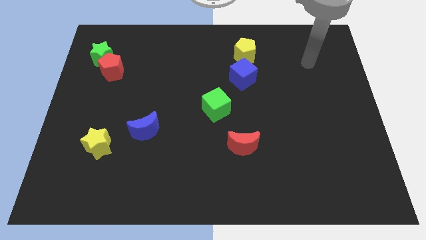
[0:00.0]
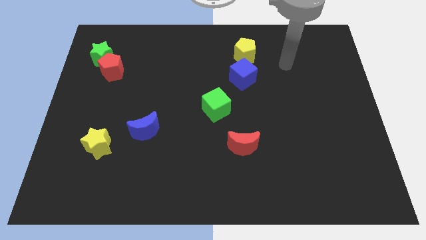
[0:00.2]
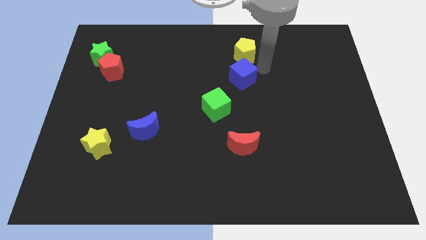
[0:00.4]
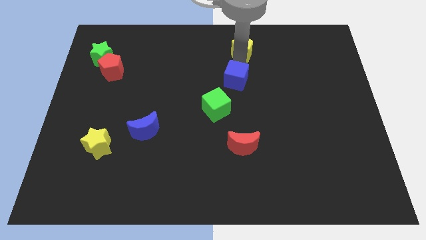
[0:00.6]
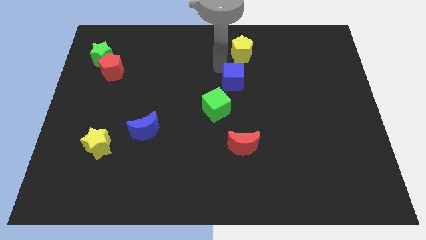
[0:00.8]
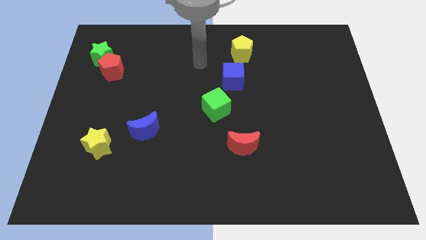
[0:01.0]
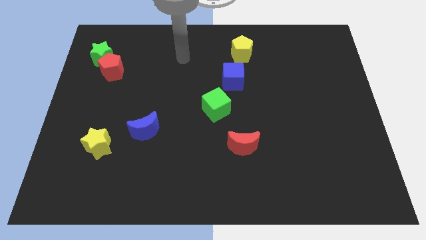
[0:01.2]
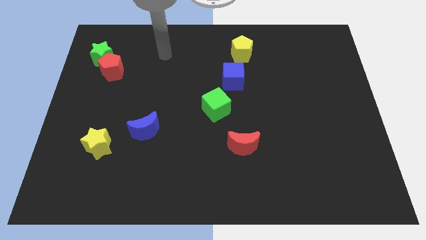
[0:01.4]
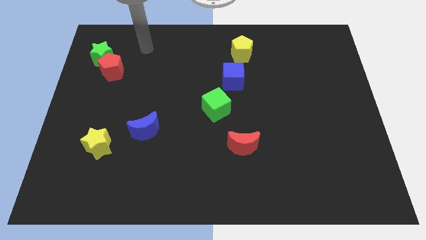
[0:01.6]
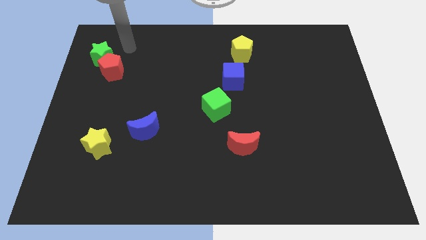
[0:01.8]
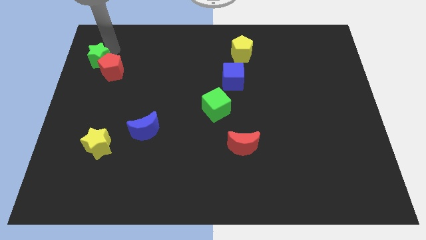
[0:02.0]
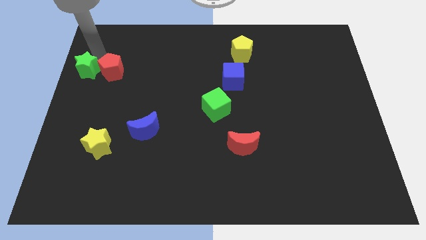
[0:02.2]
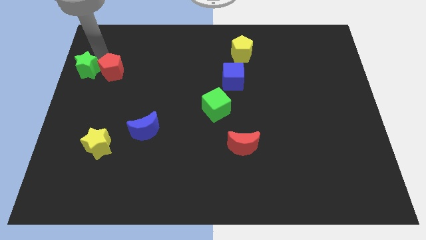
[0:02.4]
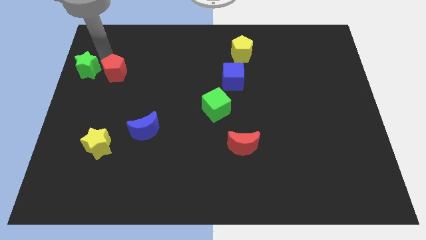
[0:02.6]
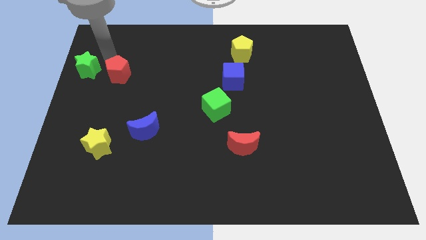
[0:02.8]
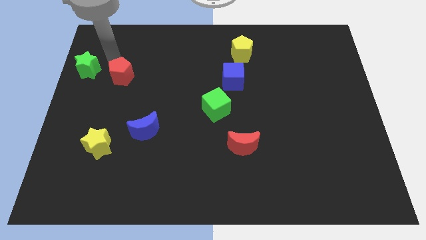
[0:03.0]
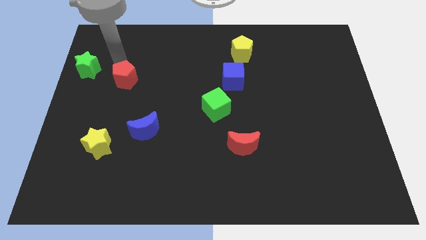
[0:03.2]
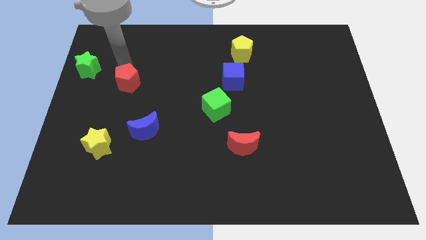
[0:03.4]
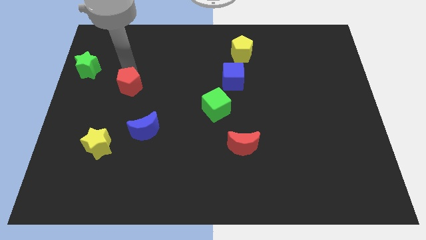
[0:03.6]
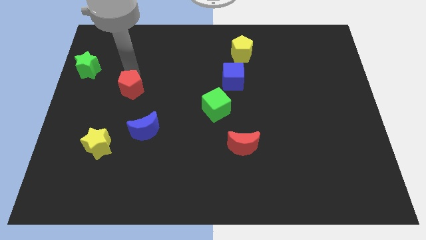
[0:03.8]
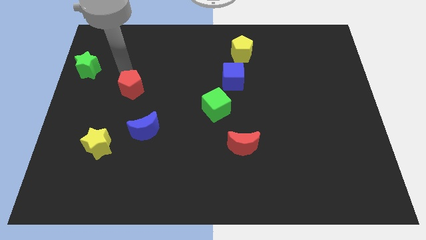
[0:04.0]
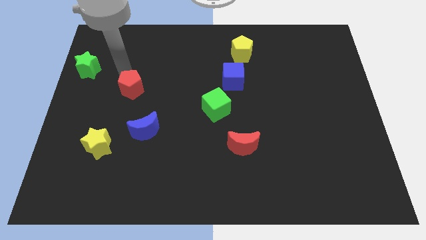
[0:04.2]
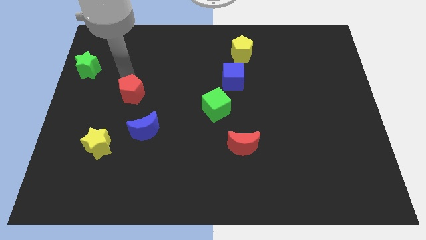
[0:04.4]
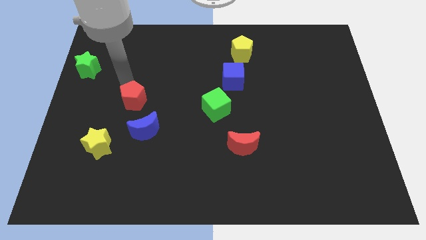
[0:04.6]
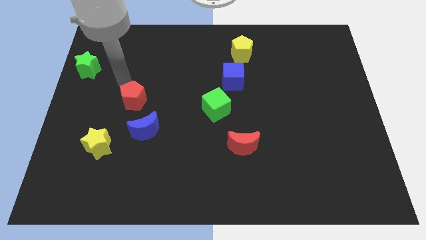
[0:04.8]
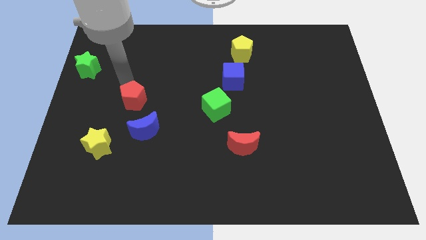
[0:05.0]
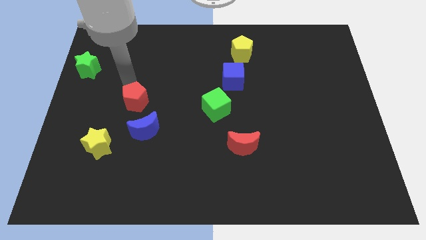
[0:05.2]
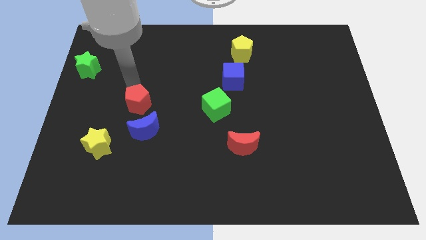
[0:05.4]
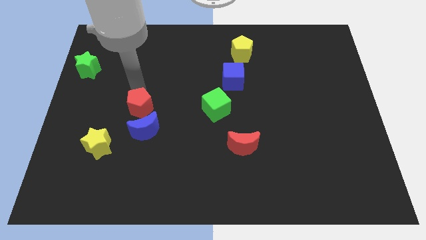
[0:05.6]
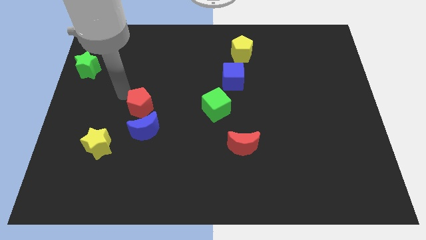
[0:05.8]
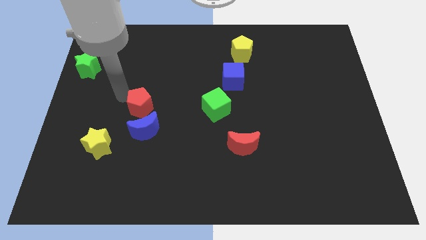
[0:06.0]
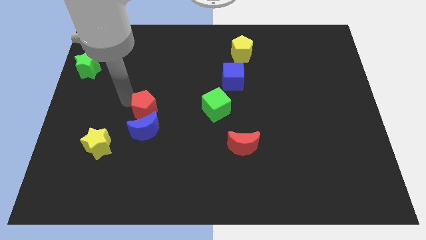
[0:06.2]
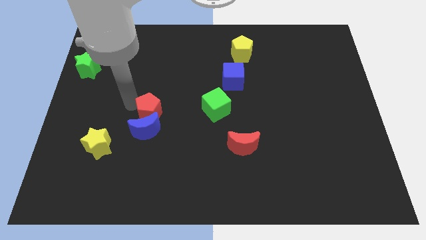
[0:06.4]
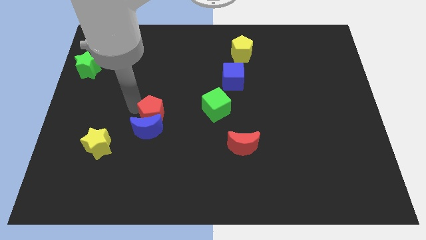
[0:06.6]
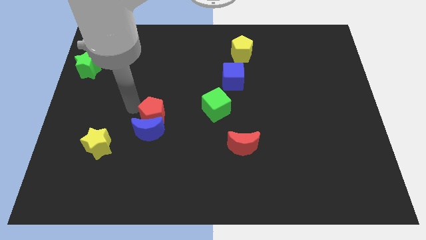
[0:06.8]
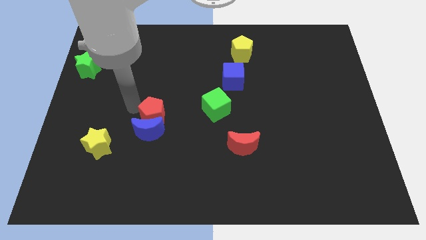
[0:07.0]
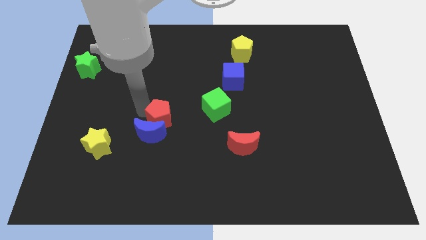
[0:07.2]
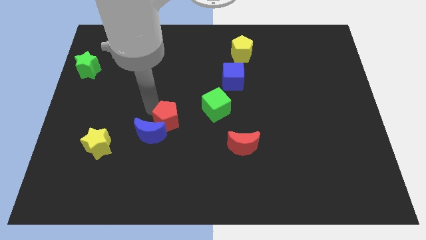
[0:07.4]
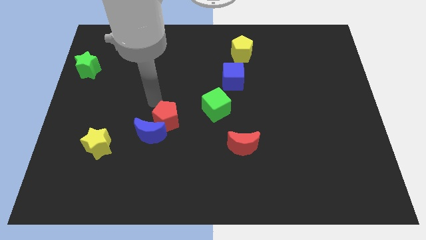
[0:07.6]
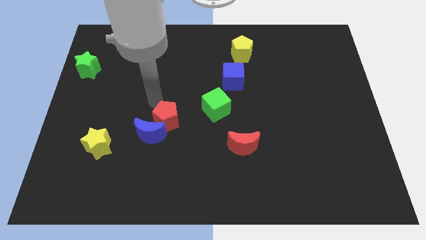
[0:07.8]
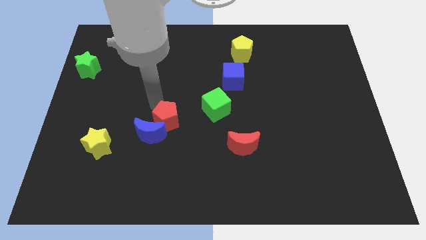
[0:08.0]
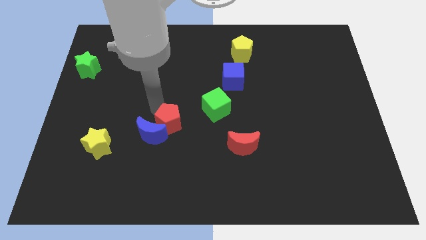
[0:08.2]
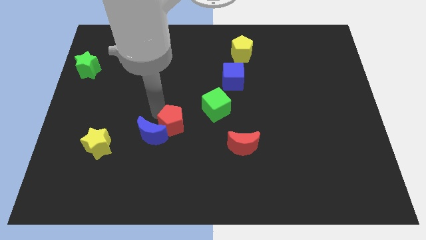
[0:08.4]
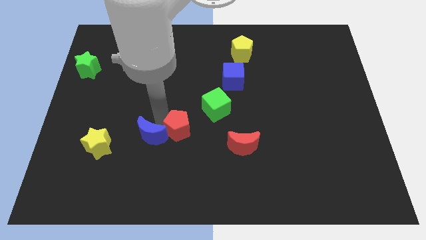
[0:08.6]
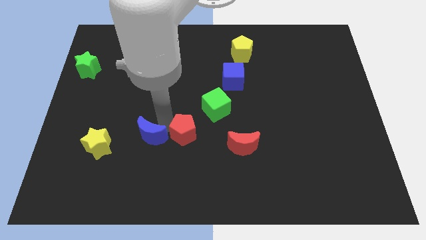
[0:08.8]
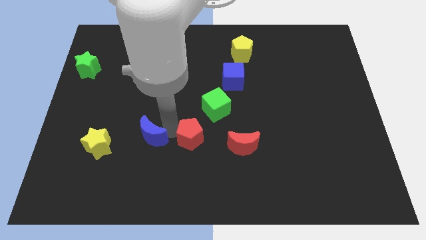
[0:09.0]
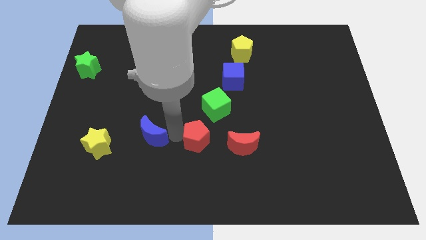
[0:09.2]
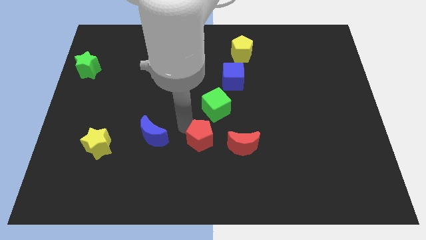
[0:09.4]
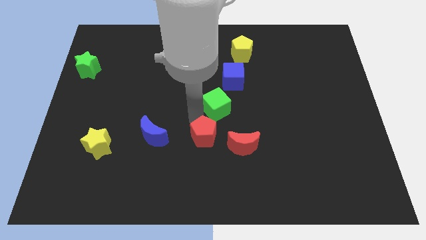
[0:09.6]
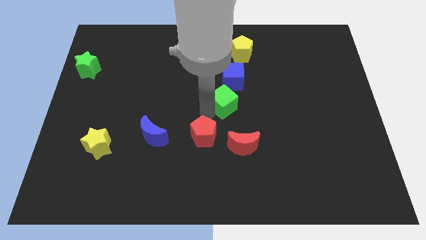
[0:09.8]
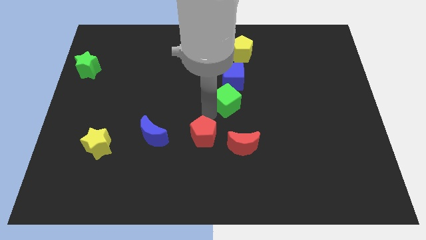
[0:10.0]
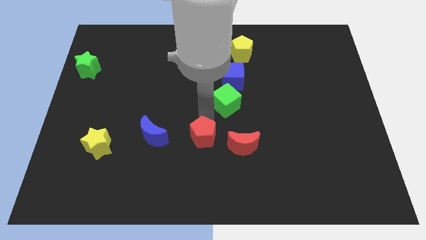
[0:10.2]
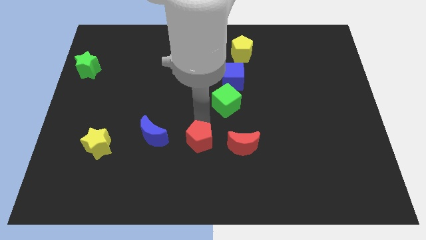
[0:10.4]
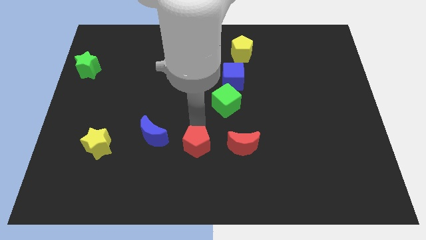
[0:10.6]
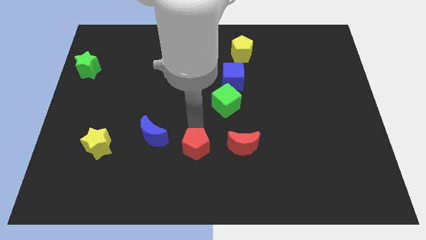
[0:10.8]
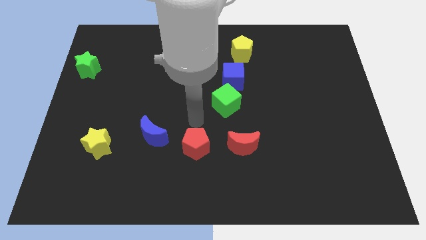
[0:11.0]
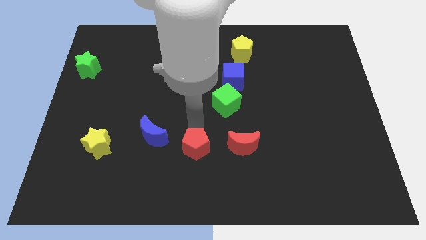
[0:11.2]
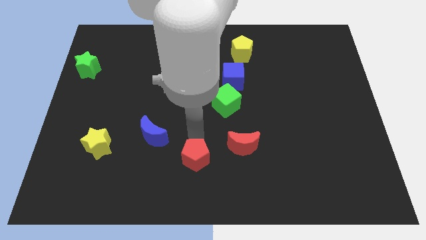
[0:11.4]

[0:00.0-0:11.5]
move the red pentagon to the bottom

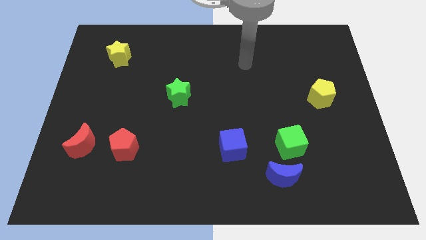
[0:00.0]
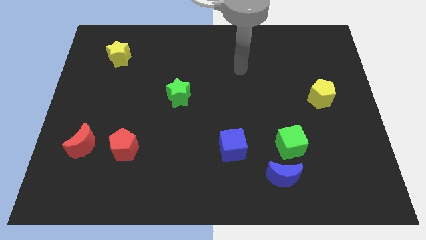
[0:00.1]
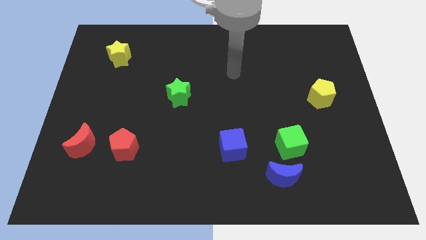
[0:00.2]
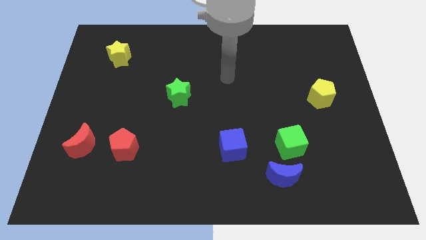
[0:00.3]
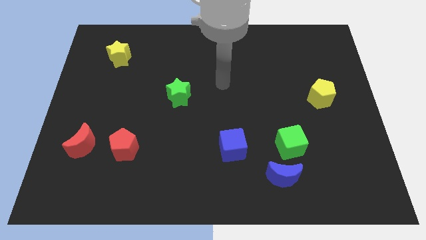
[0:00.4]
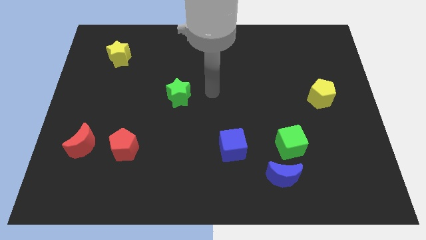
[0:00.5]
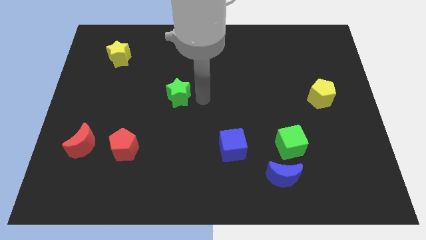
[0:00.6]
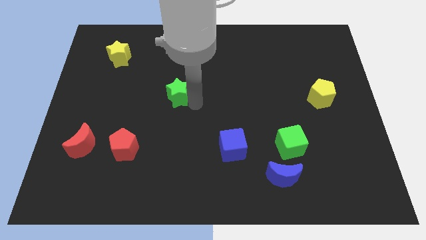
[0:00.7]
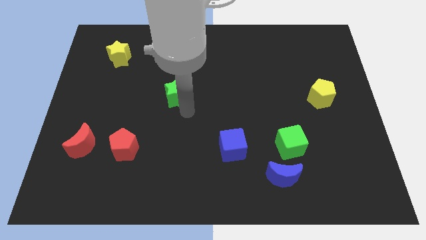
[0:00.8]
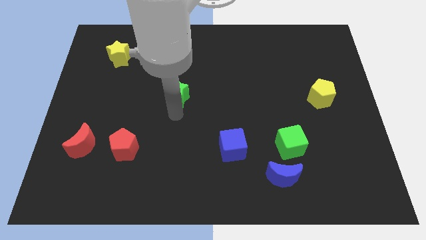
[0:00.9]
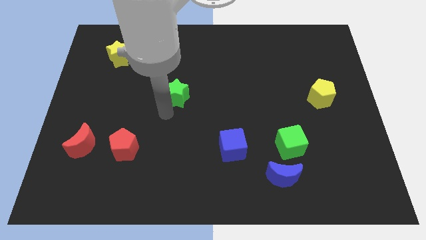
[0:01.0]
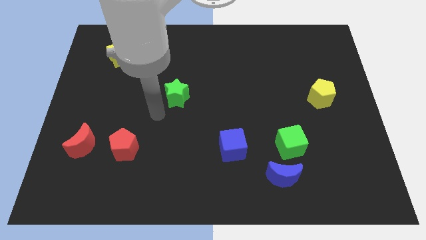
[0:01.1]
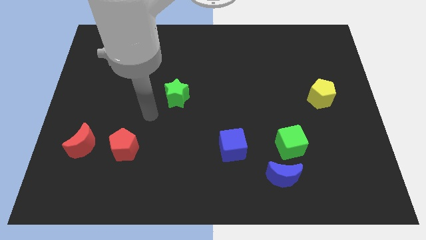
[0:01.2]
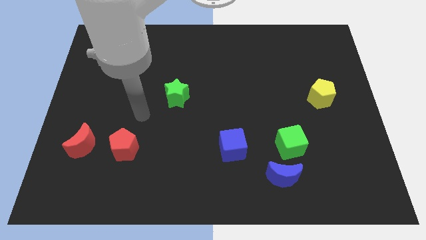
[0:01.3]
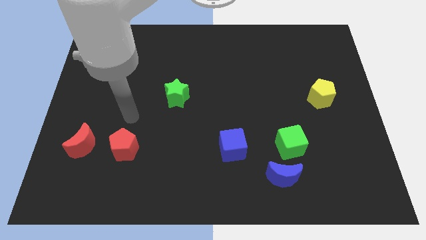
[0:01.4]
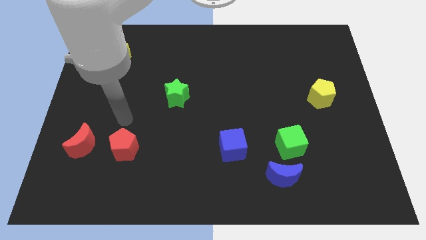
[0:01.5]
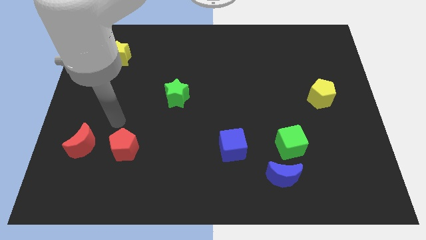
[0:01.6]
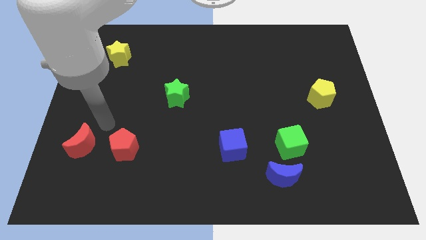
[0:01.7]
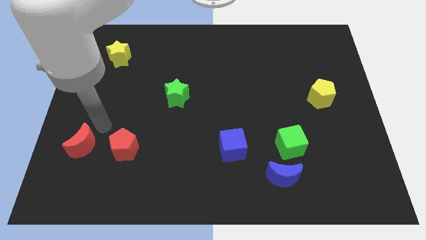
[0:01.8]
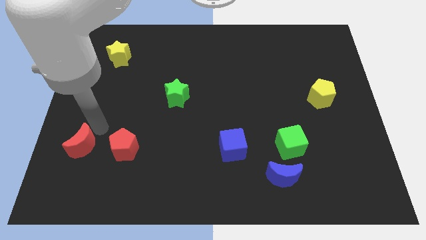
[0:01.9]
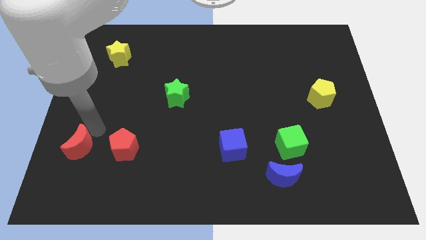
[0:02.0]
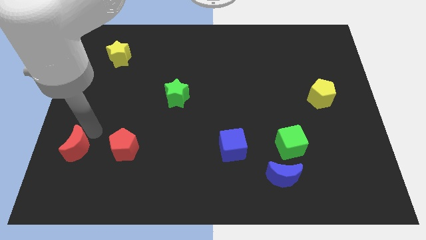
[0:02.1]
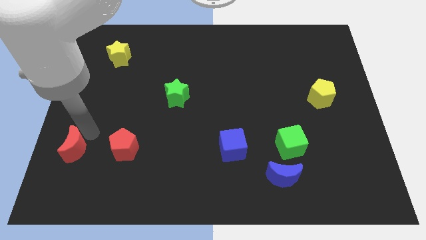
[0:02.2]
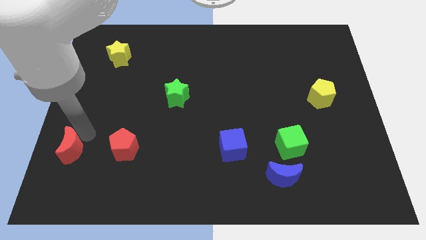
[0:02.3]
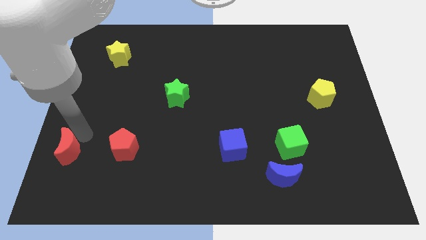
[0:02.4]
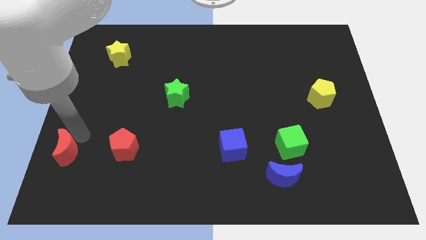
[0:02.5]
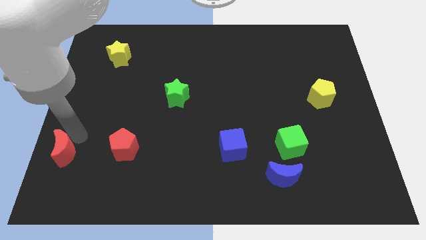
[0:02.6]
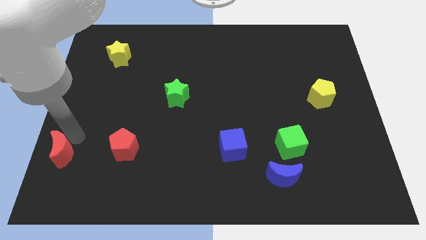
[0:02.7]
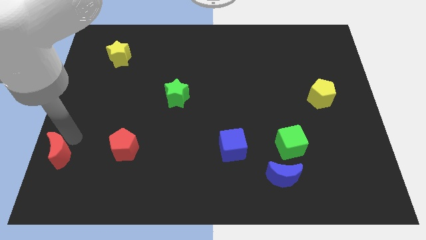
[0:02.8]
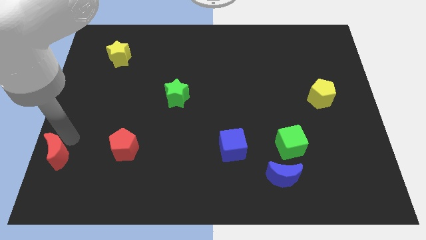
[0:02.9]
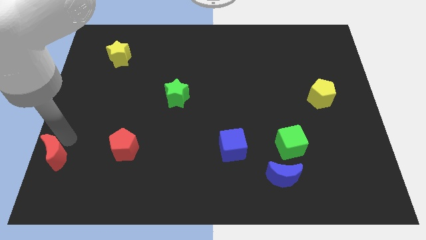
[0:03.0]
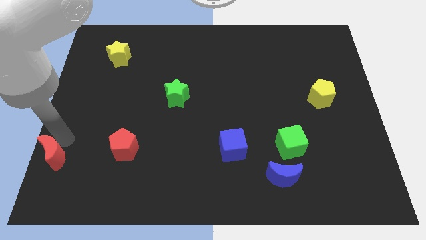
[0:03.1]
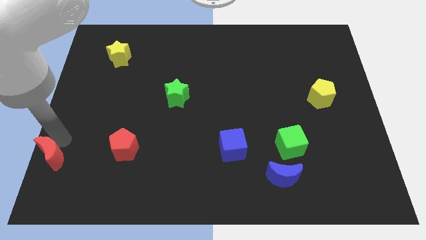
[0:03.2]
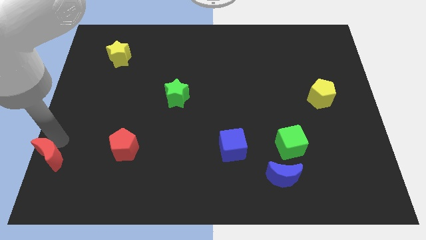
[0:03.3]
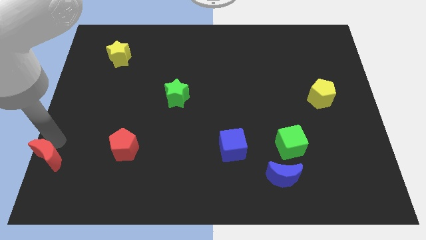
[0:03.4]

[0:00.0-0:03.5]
slide the red moon to the lower left corner
